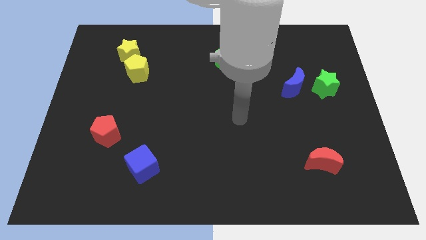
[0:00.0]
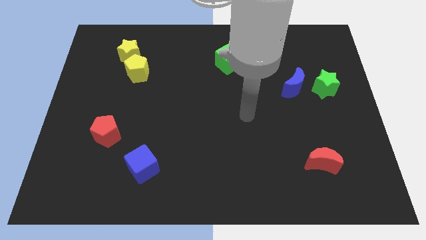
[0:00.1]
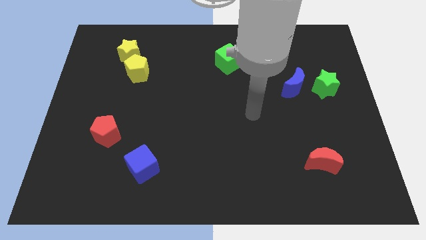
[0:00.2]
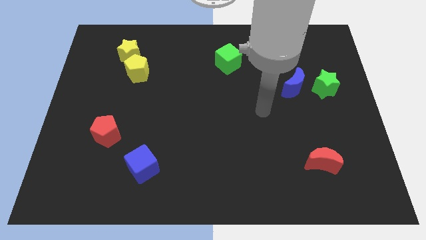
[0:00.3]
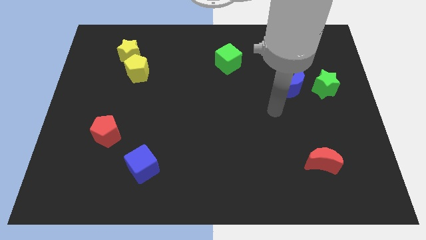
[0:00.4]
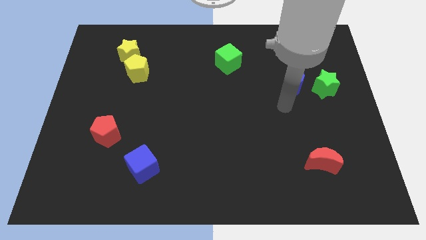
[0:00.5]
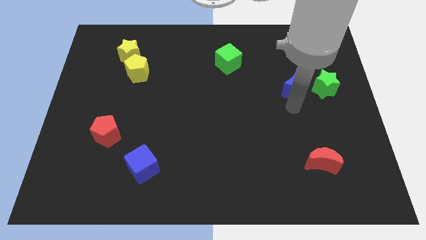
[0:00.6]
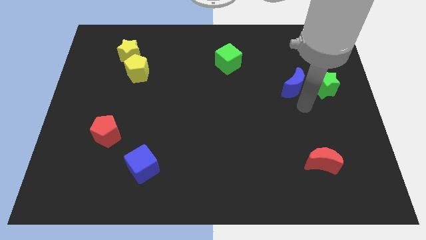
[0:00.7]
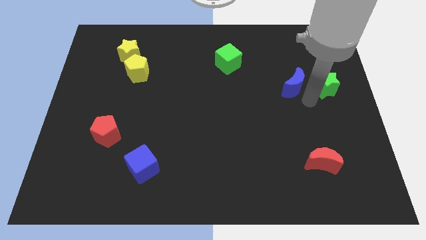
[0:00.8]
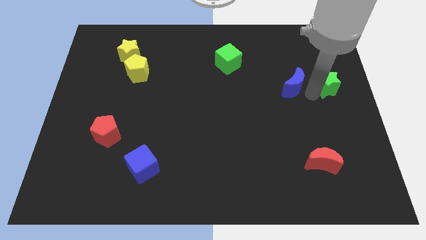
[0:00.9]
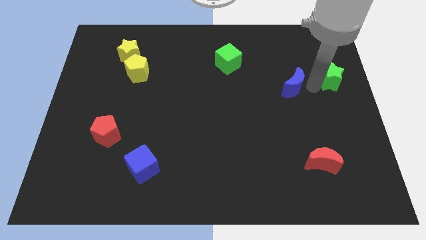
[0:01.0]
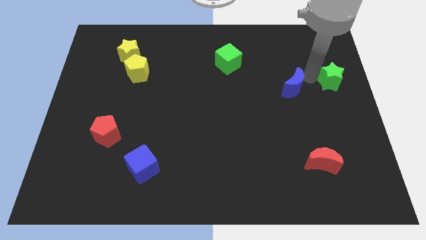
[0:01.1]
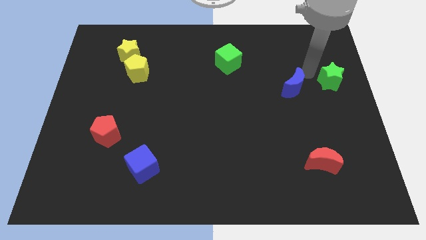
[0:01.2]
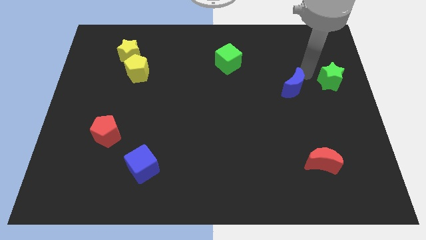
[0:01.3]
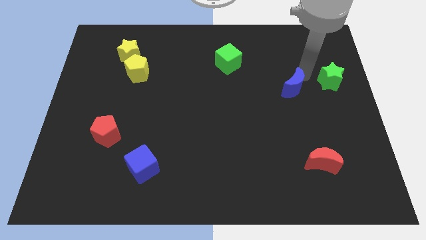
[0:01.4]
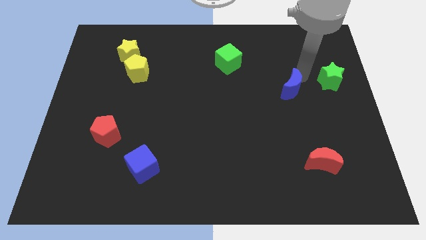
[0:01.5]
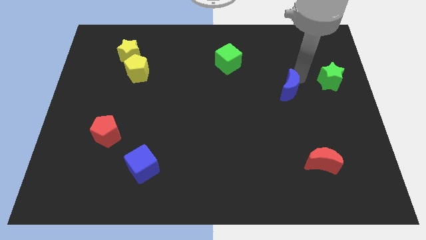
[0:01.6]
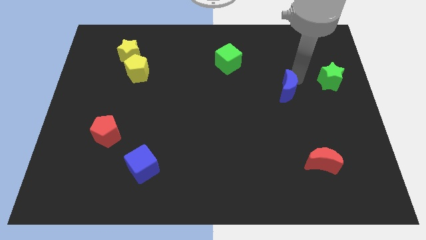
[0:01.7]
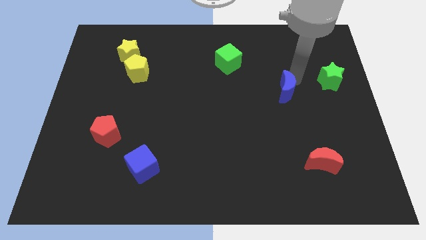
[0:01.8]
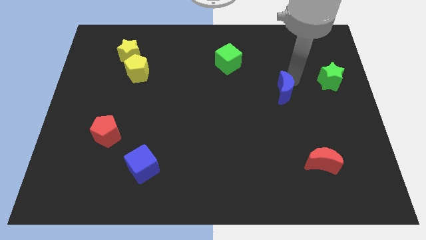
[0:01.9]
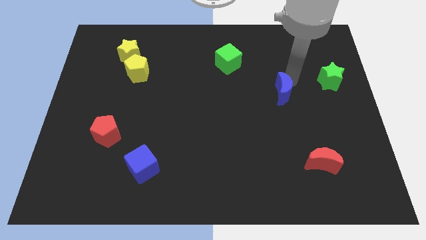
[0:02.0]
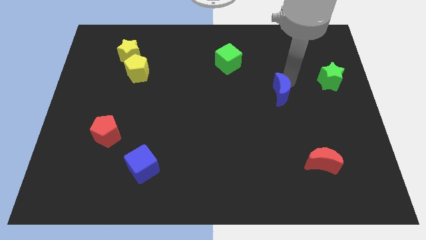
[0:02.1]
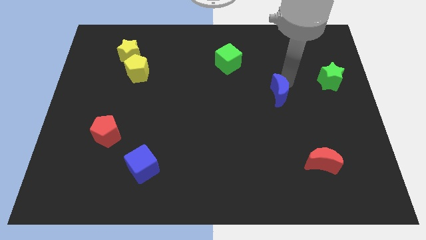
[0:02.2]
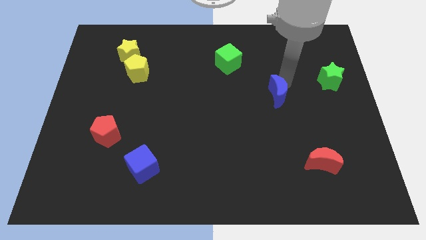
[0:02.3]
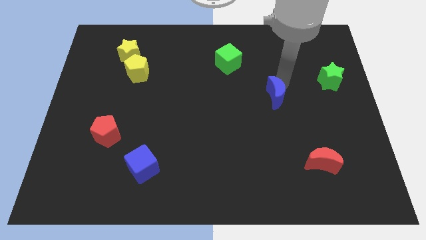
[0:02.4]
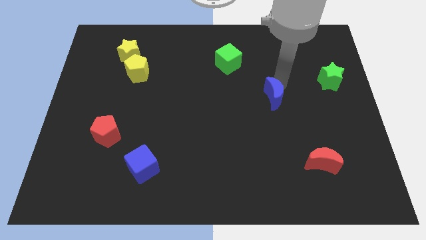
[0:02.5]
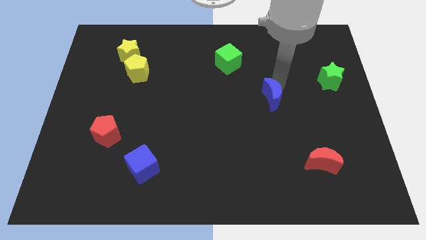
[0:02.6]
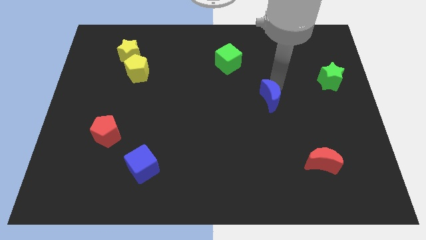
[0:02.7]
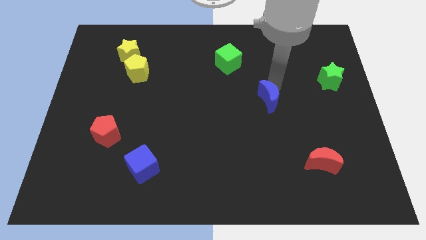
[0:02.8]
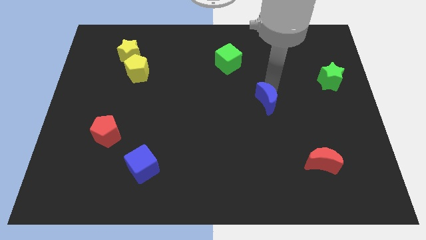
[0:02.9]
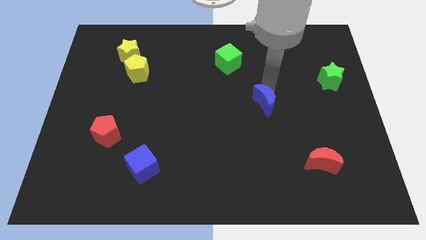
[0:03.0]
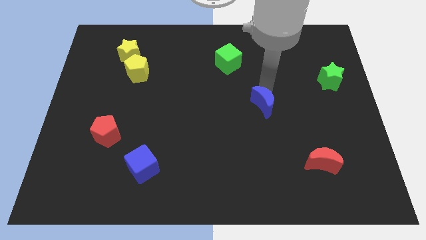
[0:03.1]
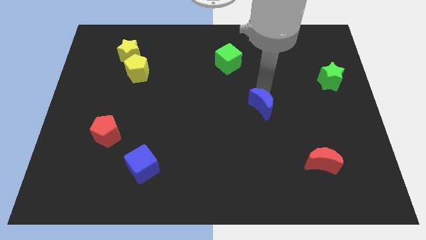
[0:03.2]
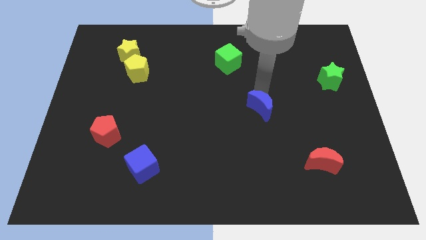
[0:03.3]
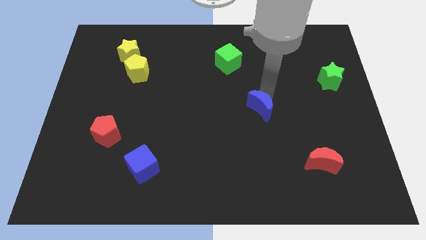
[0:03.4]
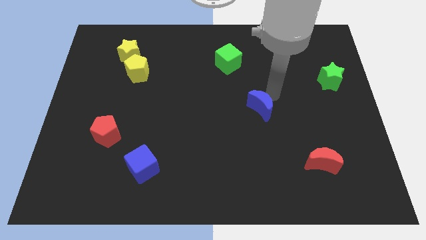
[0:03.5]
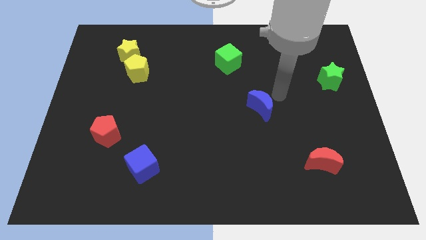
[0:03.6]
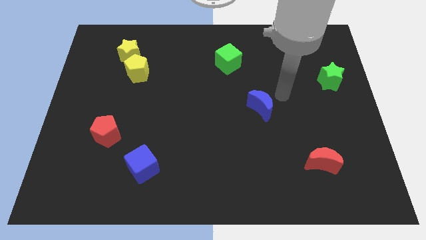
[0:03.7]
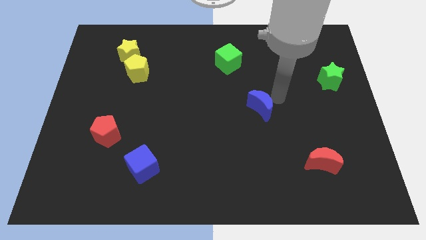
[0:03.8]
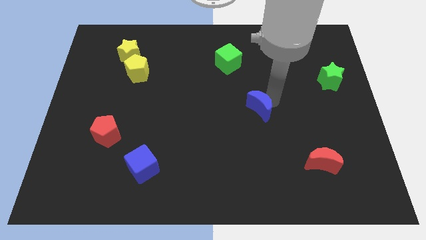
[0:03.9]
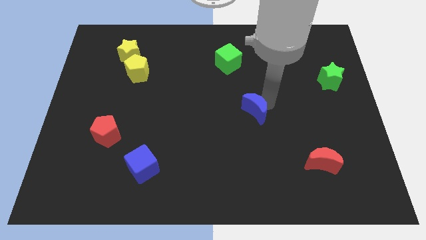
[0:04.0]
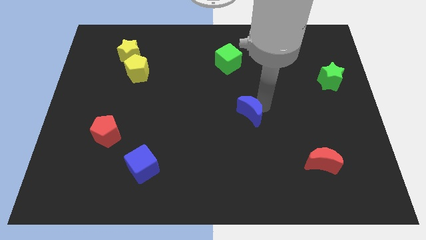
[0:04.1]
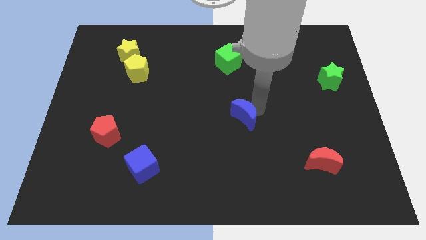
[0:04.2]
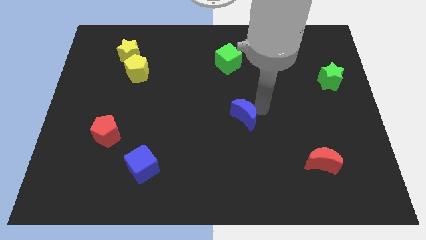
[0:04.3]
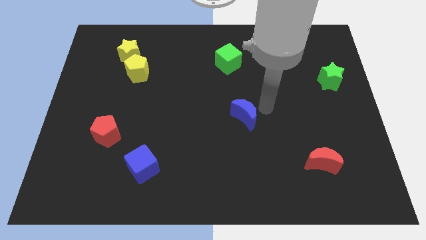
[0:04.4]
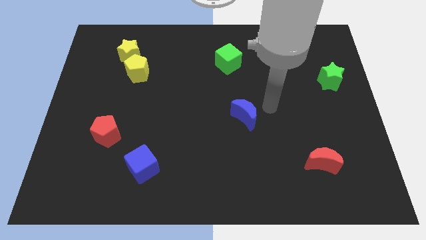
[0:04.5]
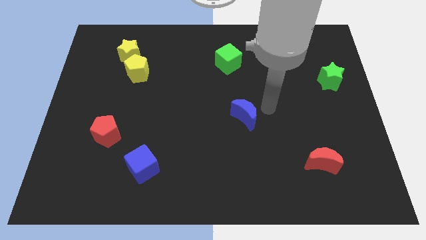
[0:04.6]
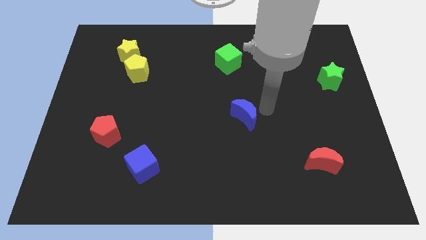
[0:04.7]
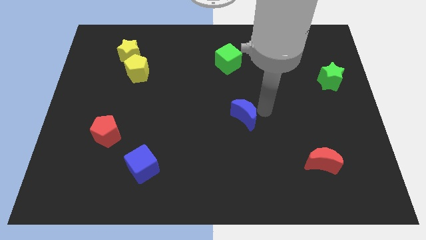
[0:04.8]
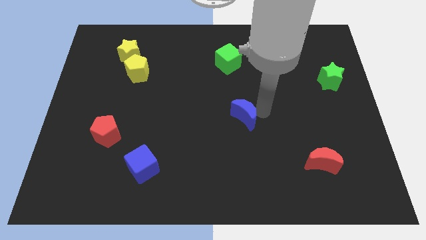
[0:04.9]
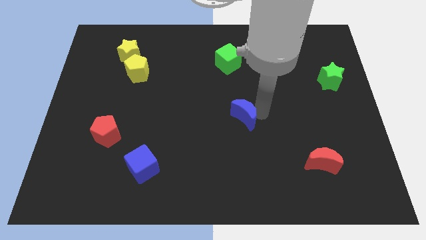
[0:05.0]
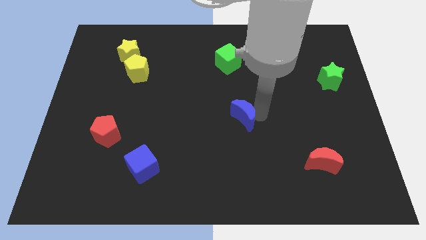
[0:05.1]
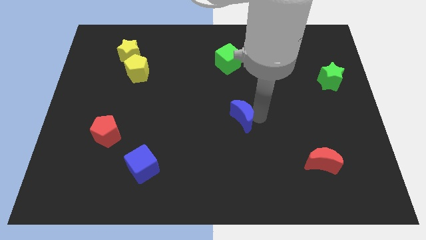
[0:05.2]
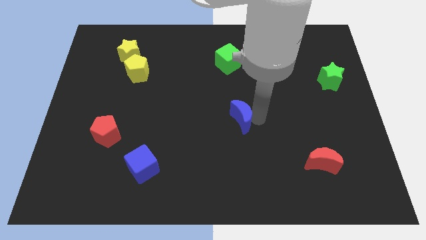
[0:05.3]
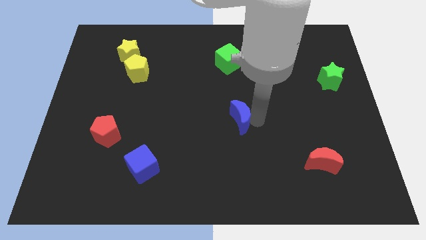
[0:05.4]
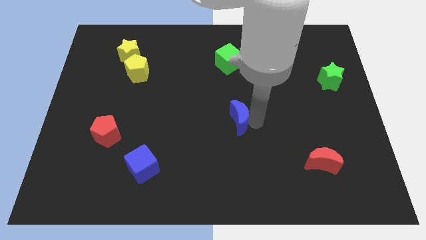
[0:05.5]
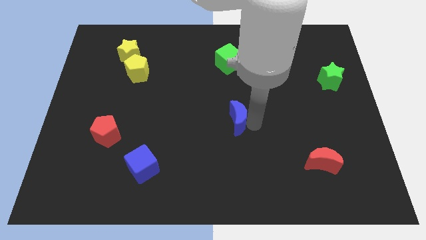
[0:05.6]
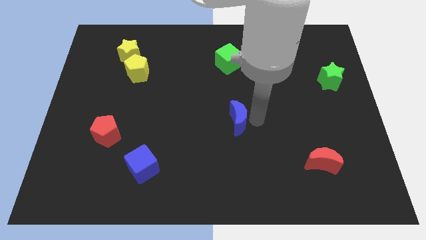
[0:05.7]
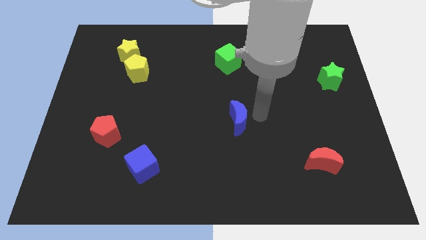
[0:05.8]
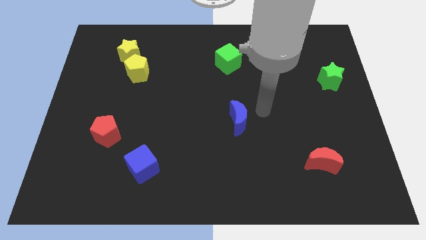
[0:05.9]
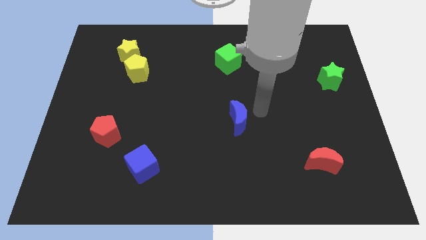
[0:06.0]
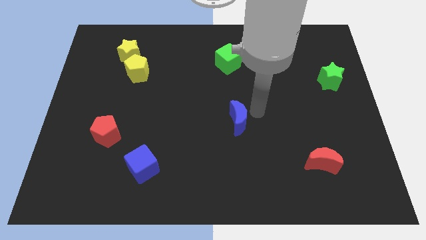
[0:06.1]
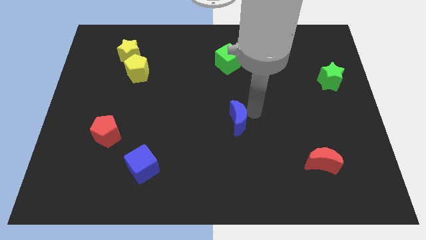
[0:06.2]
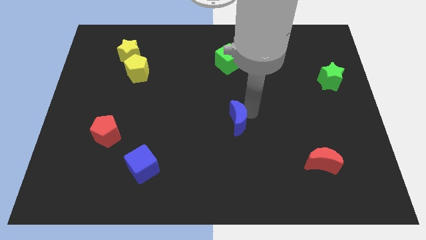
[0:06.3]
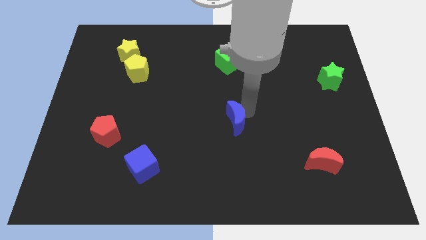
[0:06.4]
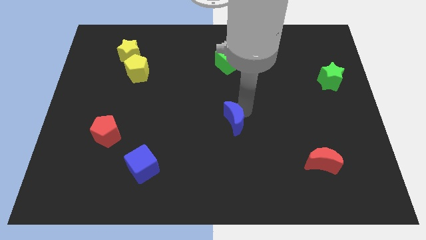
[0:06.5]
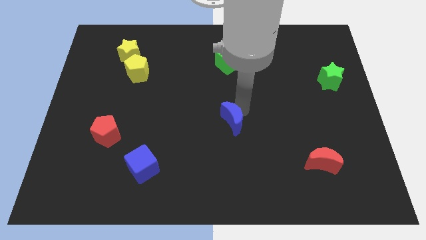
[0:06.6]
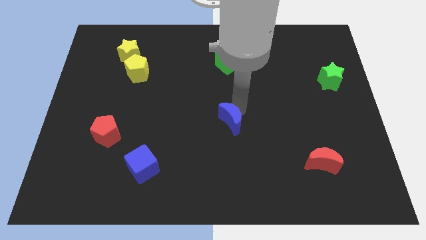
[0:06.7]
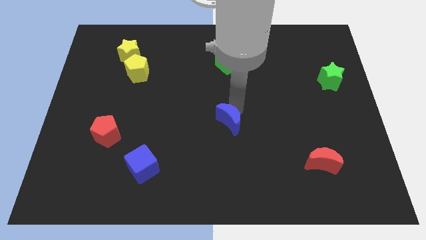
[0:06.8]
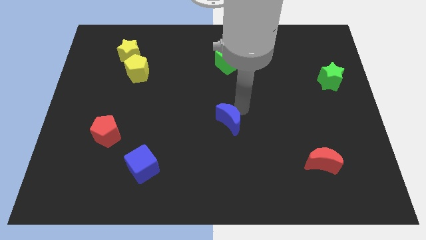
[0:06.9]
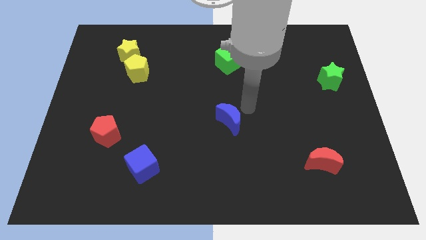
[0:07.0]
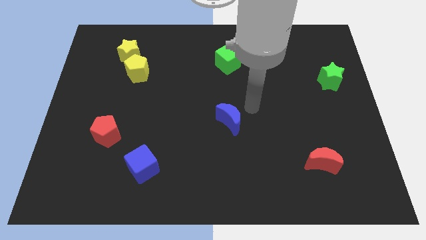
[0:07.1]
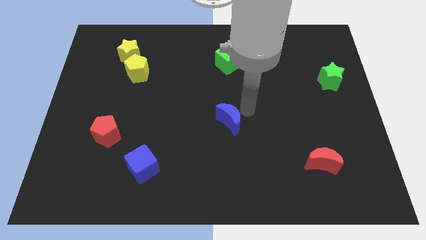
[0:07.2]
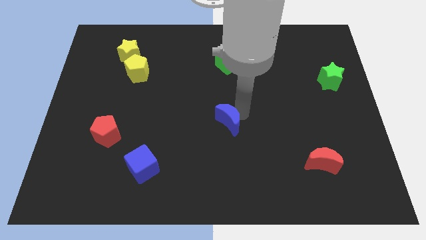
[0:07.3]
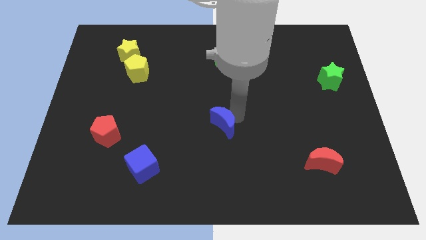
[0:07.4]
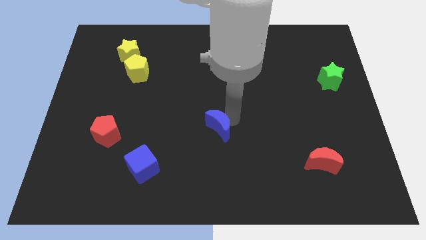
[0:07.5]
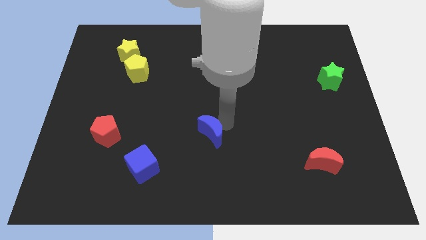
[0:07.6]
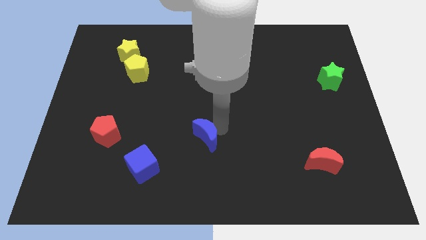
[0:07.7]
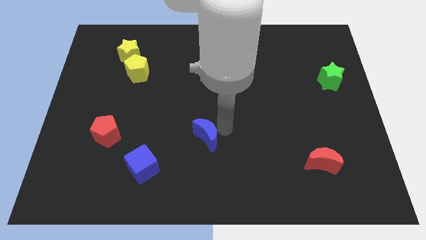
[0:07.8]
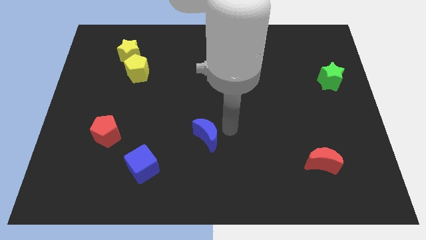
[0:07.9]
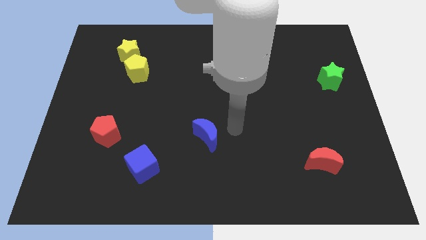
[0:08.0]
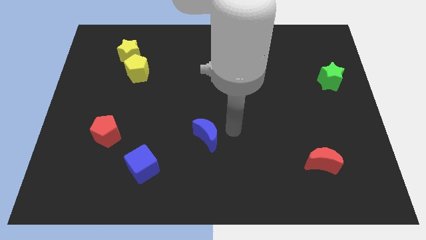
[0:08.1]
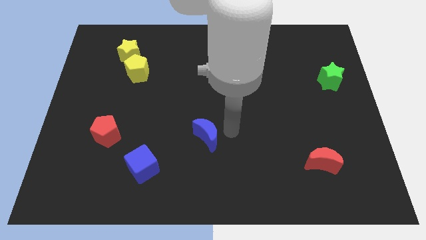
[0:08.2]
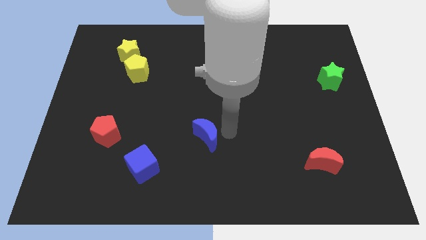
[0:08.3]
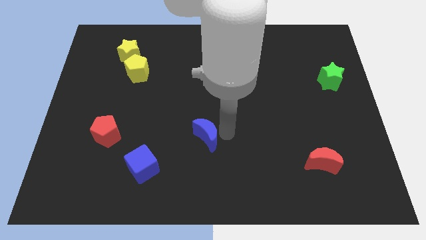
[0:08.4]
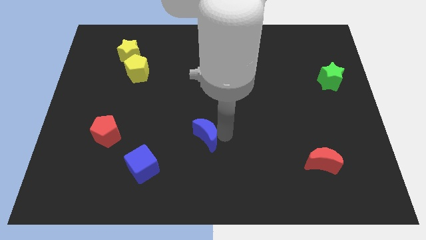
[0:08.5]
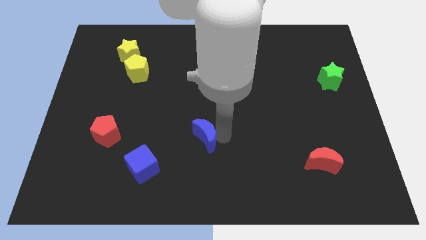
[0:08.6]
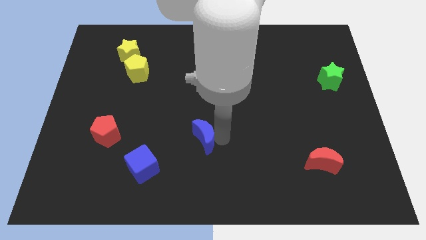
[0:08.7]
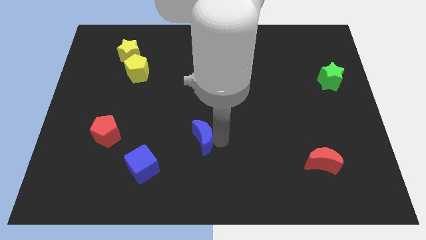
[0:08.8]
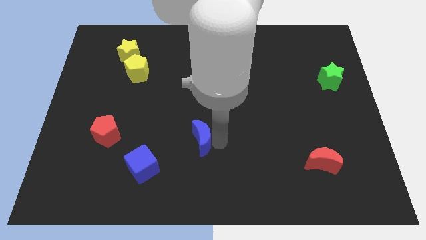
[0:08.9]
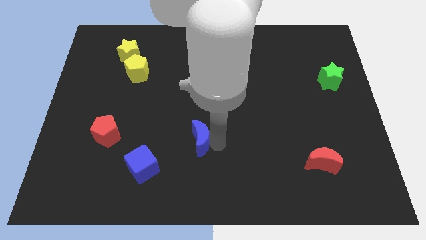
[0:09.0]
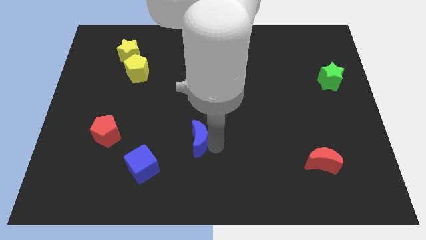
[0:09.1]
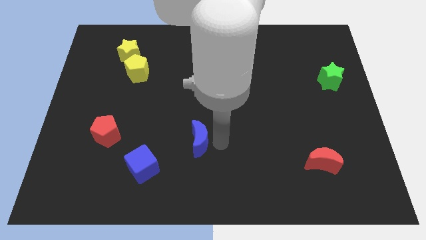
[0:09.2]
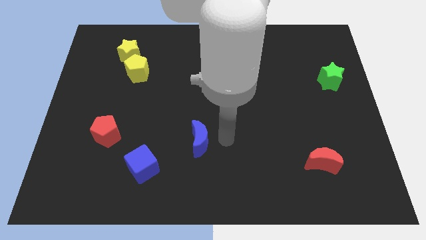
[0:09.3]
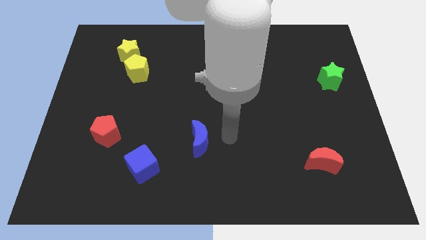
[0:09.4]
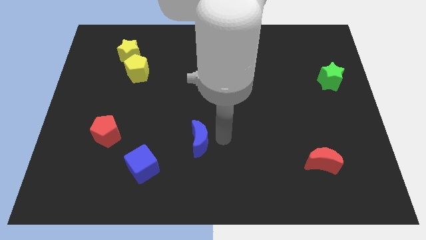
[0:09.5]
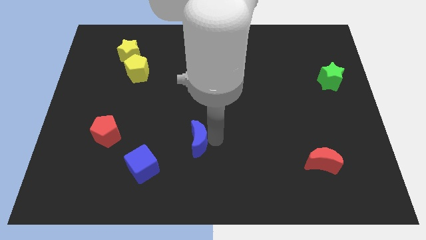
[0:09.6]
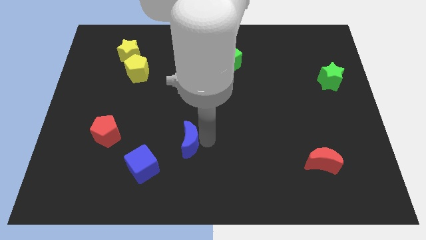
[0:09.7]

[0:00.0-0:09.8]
push the blue moon to the top right of the blue cube
